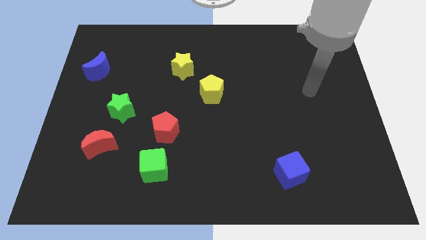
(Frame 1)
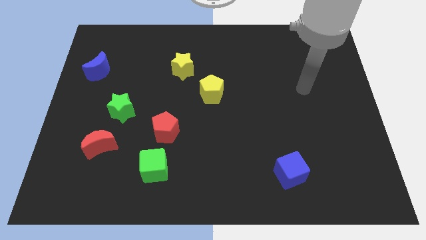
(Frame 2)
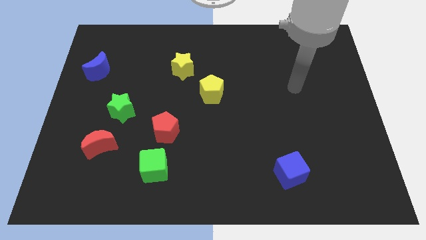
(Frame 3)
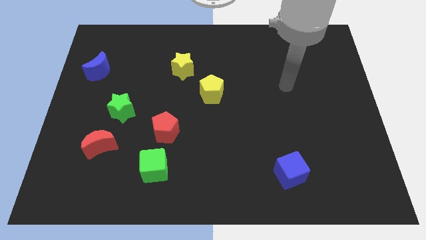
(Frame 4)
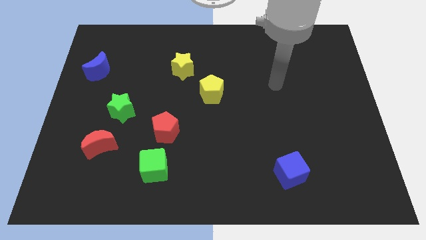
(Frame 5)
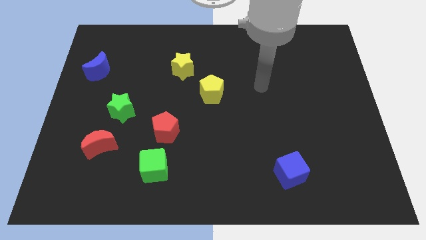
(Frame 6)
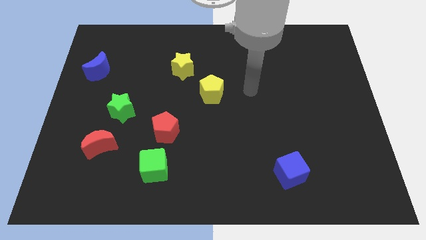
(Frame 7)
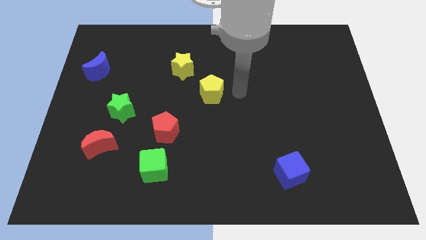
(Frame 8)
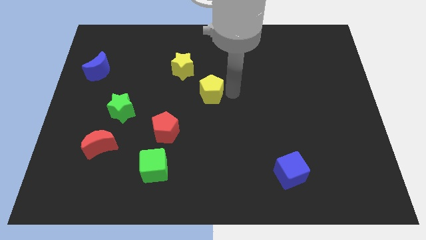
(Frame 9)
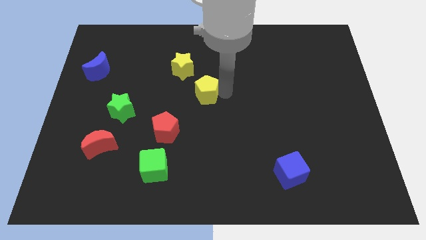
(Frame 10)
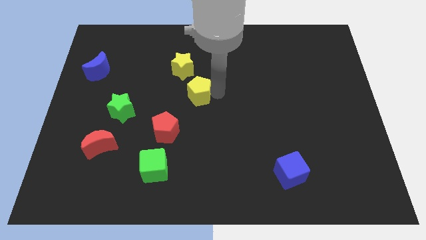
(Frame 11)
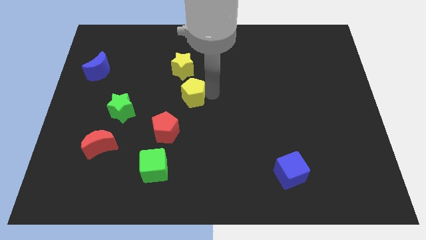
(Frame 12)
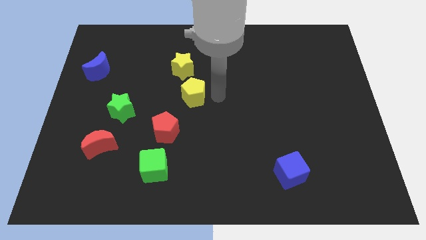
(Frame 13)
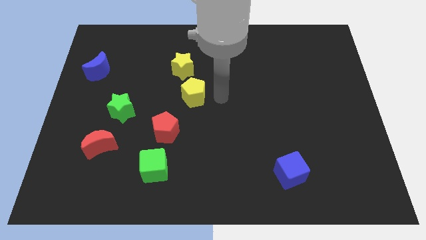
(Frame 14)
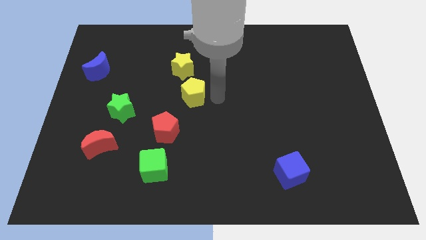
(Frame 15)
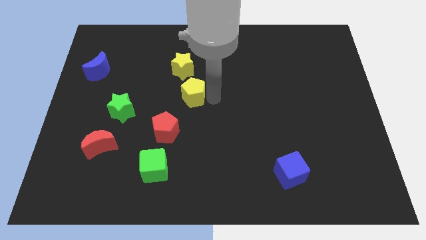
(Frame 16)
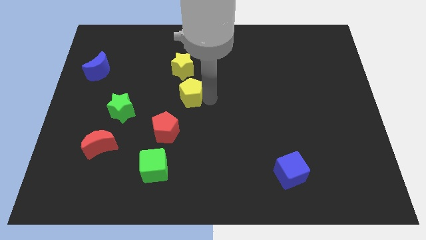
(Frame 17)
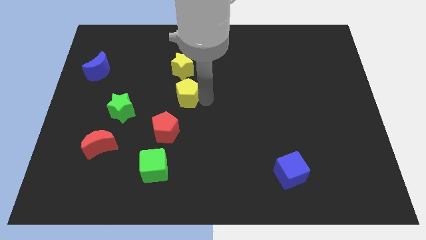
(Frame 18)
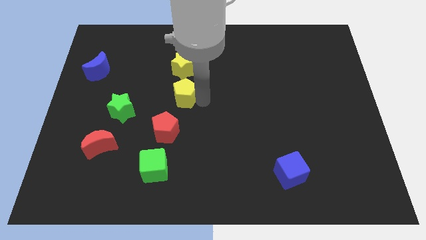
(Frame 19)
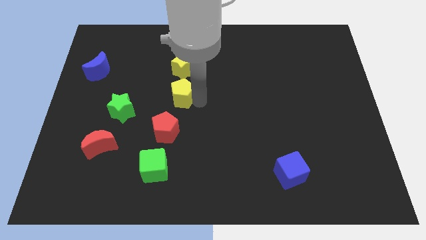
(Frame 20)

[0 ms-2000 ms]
slide the yellow pentagon slightly left

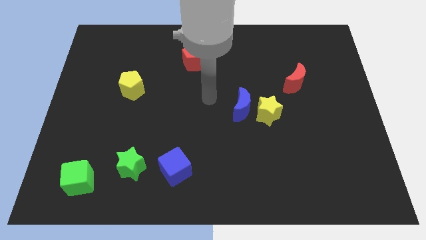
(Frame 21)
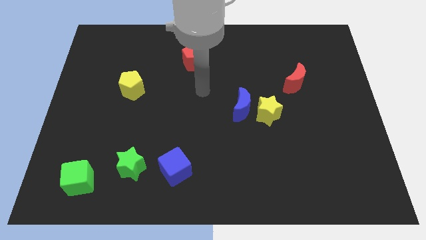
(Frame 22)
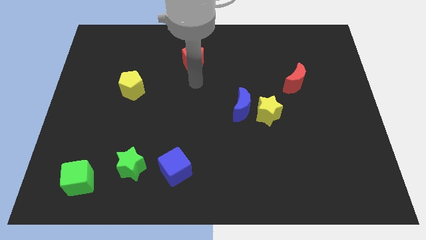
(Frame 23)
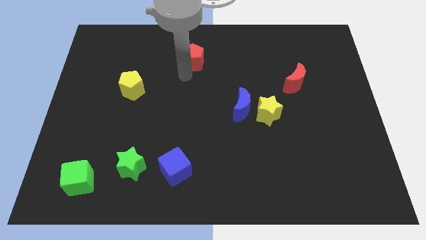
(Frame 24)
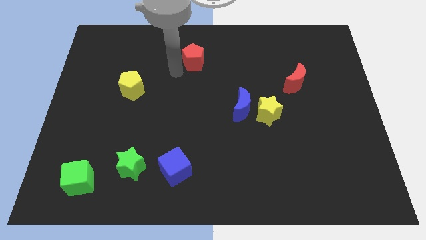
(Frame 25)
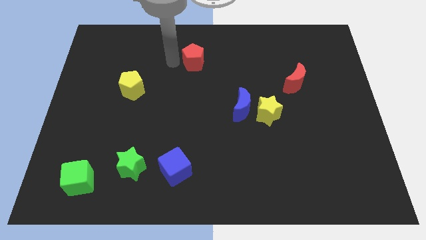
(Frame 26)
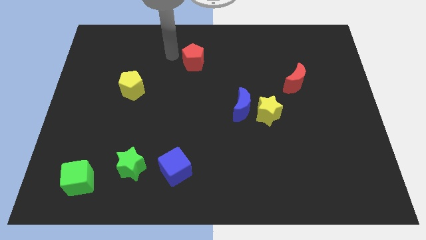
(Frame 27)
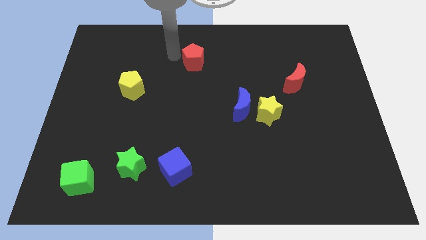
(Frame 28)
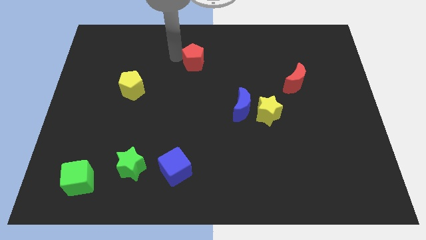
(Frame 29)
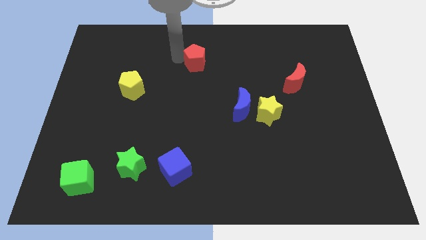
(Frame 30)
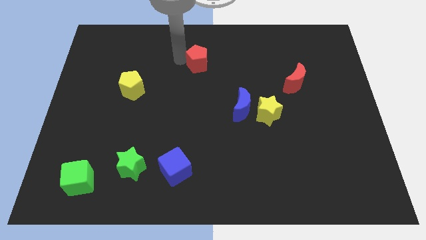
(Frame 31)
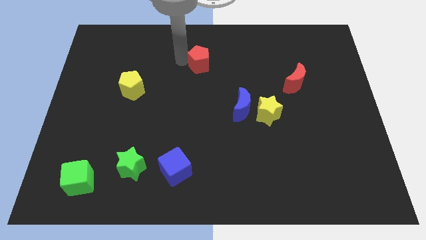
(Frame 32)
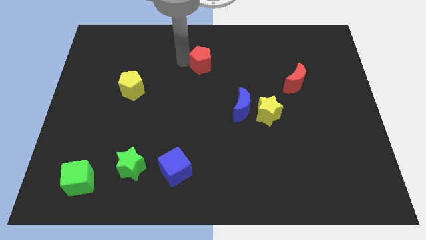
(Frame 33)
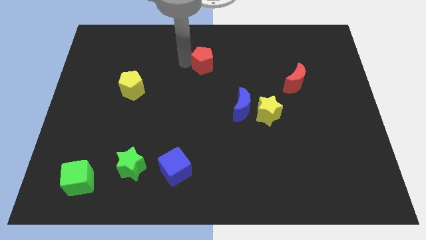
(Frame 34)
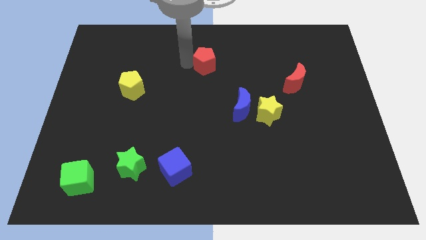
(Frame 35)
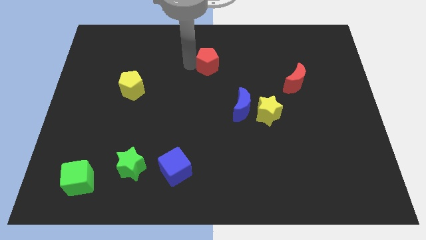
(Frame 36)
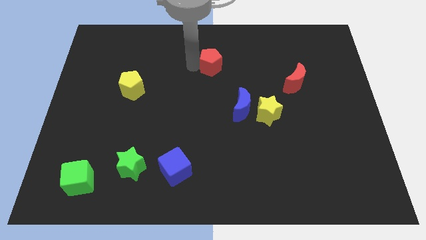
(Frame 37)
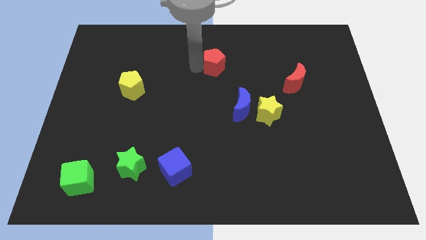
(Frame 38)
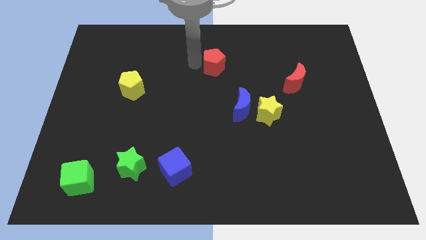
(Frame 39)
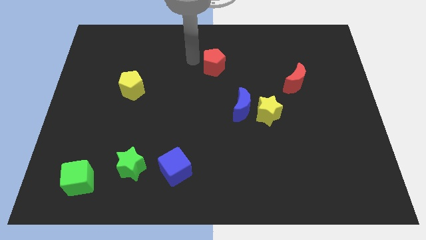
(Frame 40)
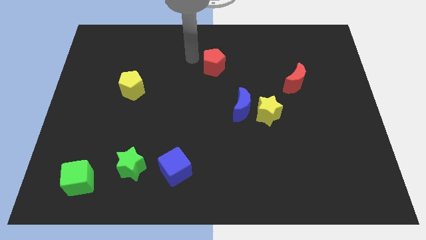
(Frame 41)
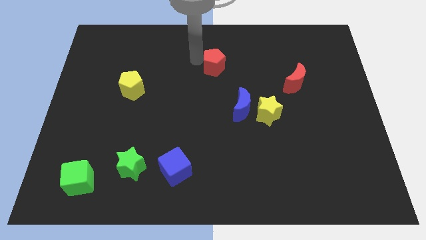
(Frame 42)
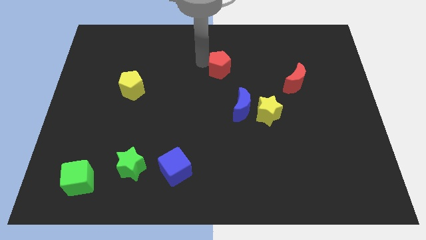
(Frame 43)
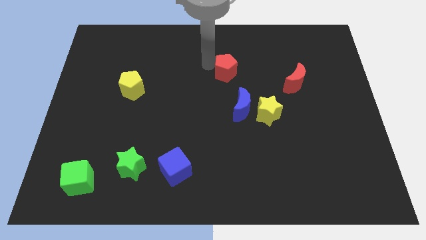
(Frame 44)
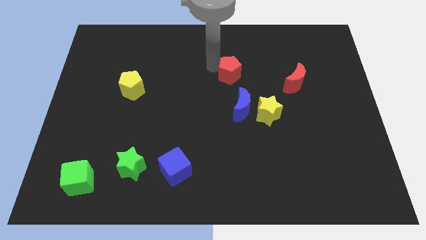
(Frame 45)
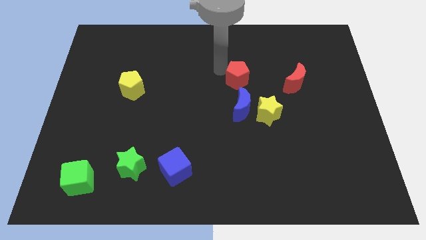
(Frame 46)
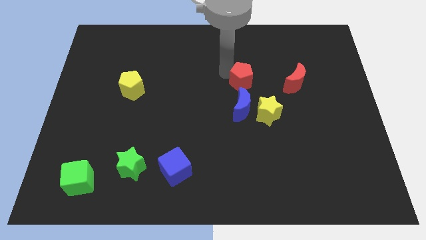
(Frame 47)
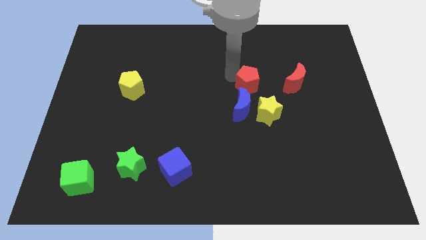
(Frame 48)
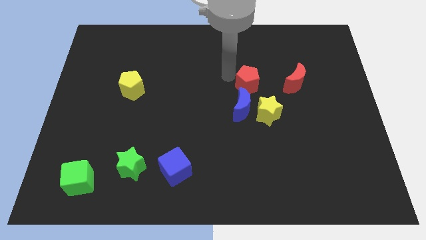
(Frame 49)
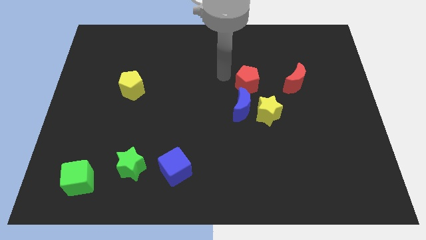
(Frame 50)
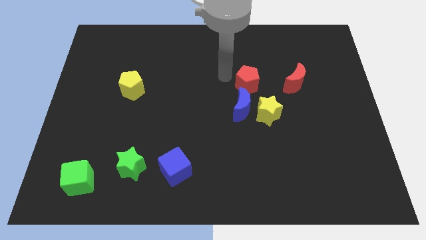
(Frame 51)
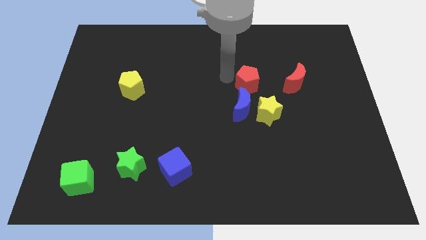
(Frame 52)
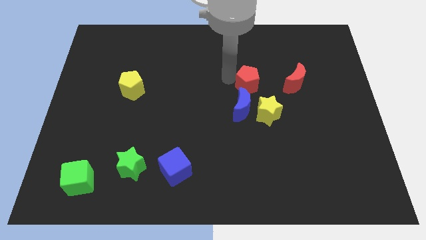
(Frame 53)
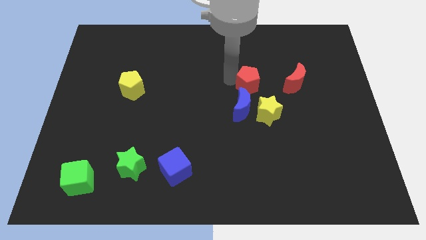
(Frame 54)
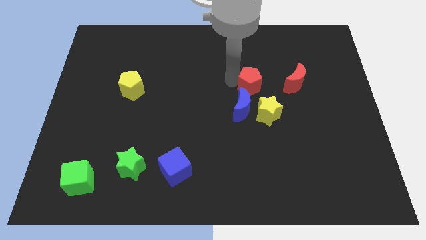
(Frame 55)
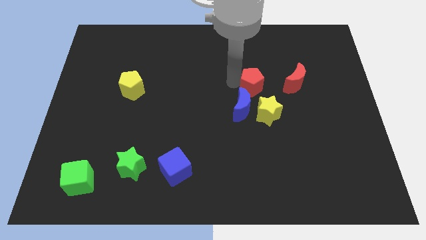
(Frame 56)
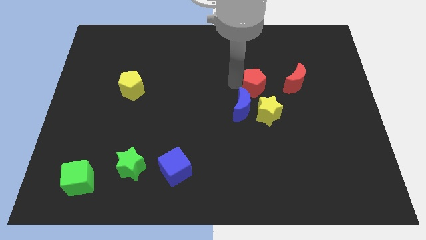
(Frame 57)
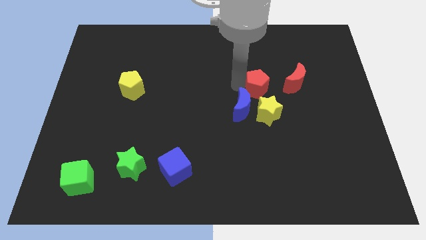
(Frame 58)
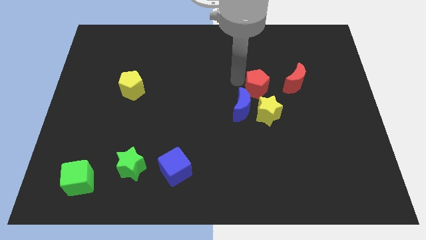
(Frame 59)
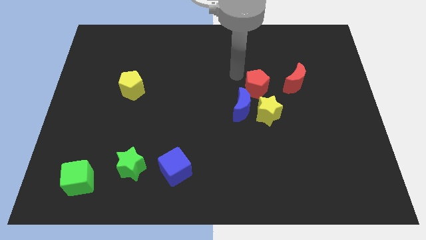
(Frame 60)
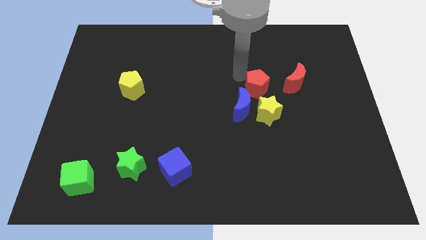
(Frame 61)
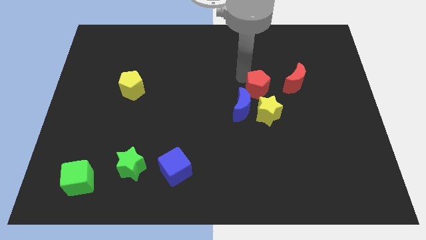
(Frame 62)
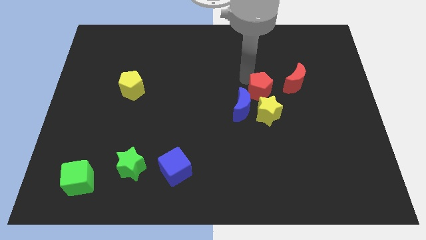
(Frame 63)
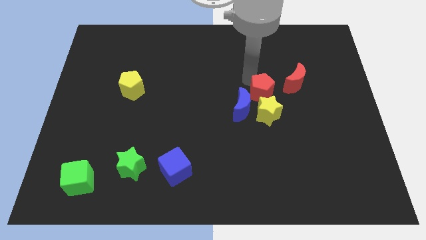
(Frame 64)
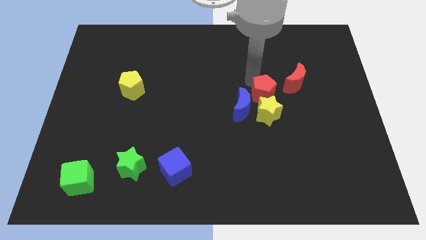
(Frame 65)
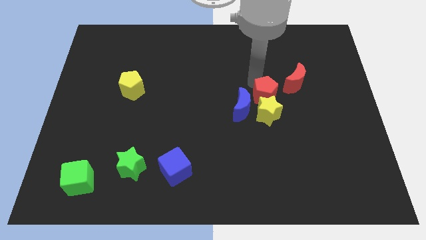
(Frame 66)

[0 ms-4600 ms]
move the red pentagon down and to the right diagonally

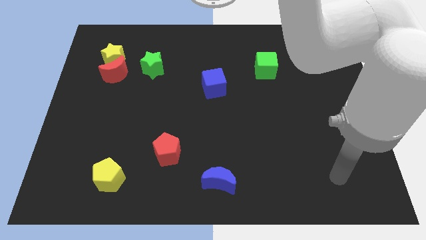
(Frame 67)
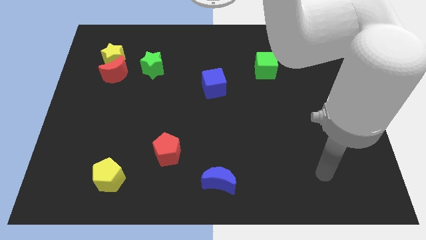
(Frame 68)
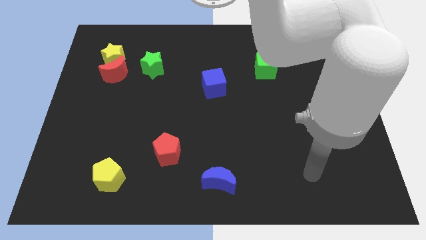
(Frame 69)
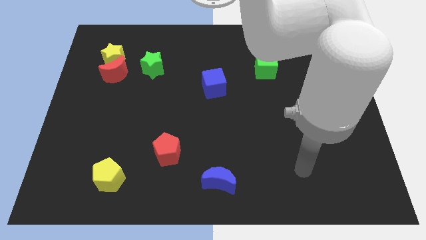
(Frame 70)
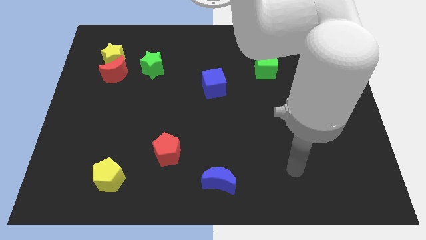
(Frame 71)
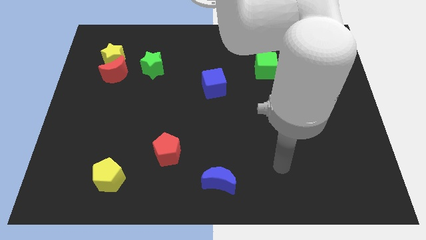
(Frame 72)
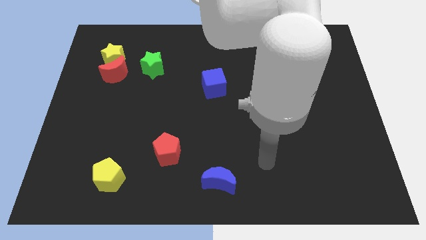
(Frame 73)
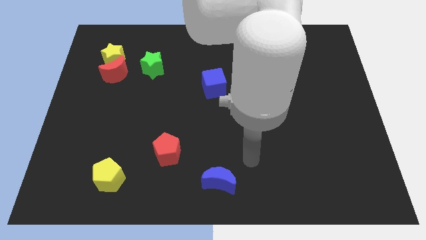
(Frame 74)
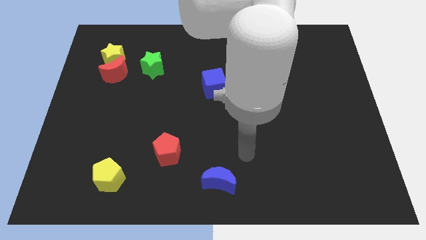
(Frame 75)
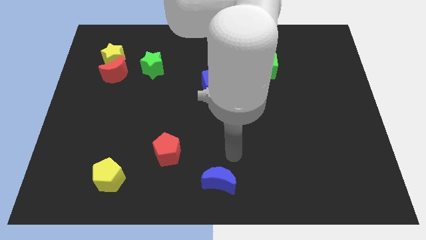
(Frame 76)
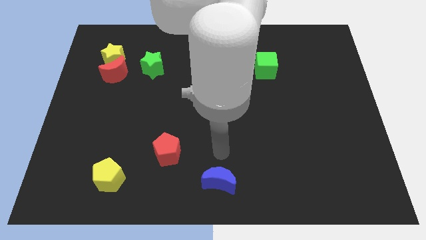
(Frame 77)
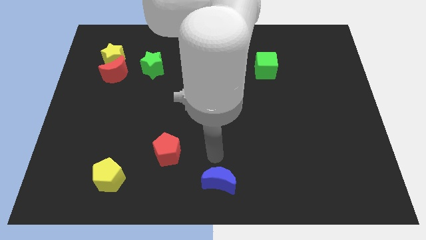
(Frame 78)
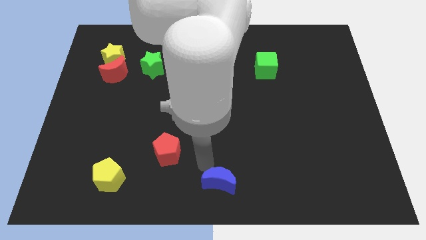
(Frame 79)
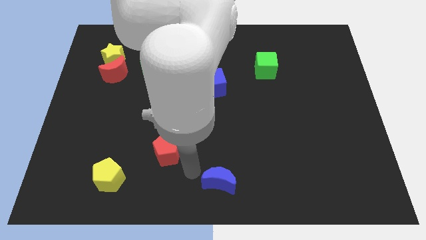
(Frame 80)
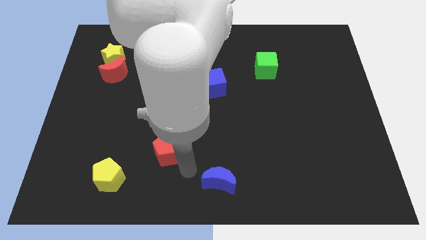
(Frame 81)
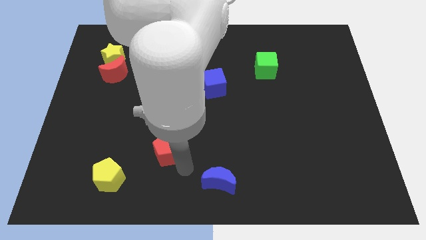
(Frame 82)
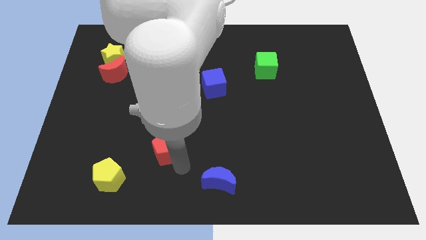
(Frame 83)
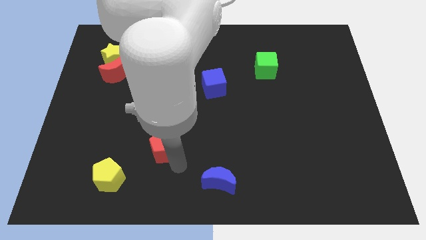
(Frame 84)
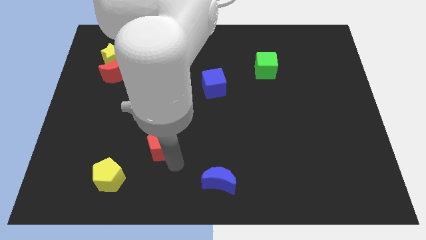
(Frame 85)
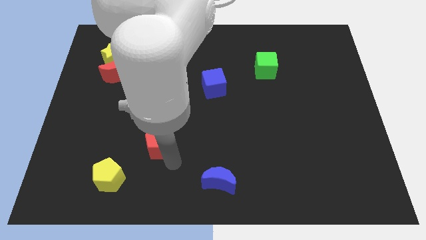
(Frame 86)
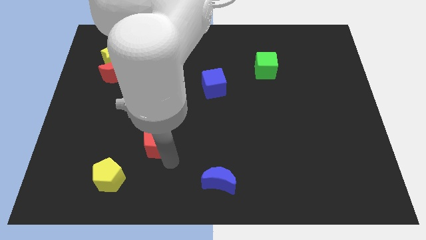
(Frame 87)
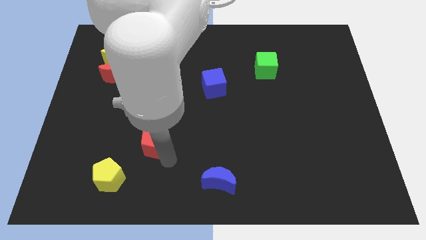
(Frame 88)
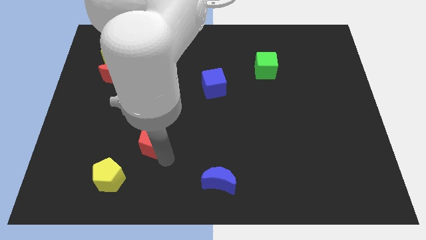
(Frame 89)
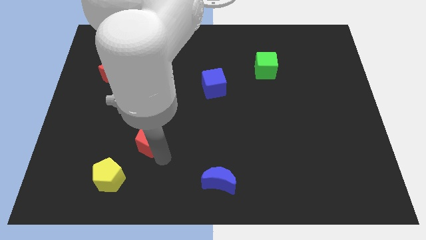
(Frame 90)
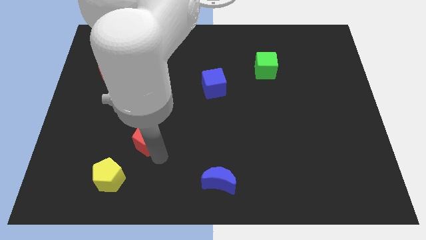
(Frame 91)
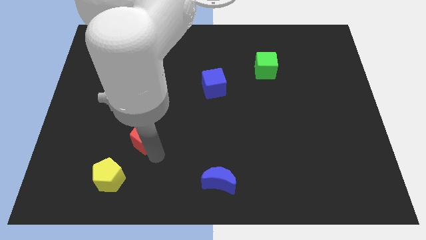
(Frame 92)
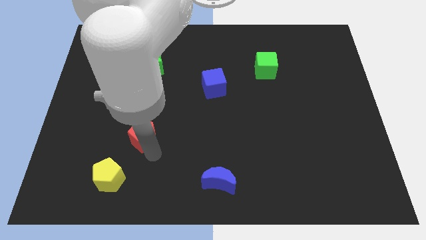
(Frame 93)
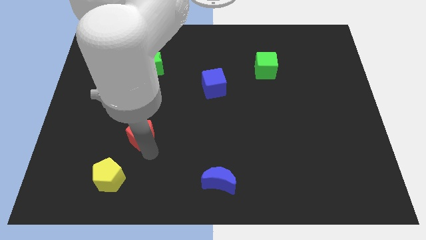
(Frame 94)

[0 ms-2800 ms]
slide the red pentagon diagonally up and to the left a bit
